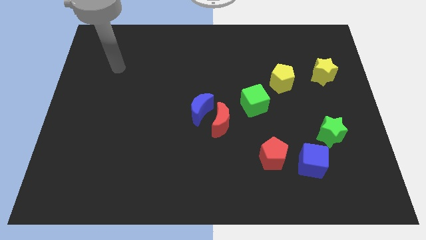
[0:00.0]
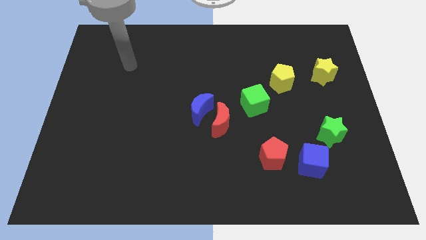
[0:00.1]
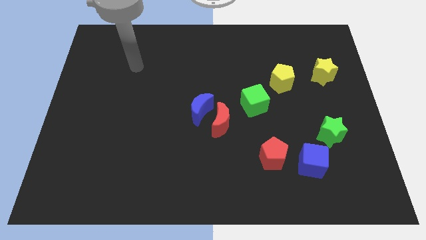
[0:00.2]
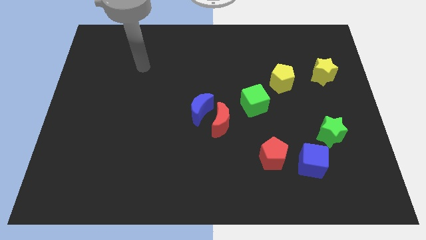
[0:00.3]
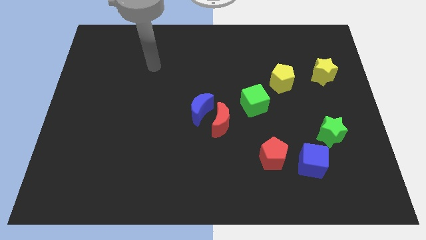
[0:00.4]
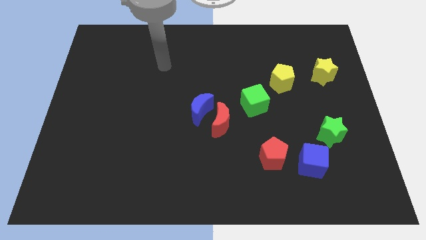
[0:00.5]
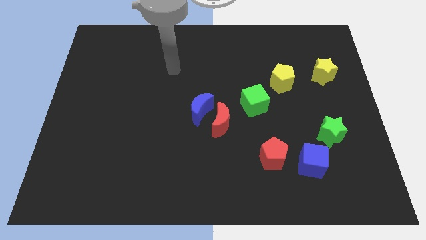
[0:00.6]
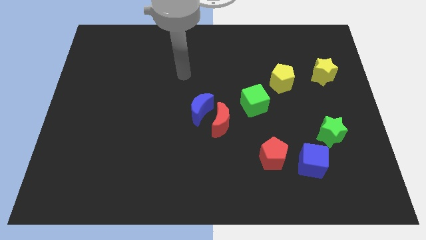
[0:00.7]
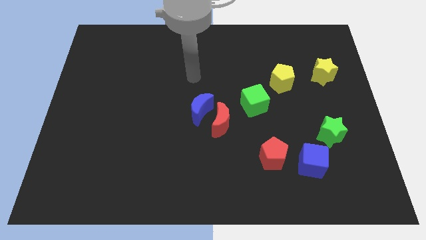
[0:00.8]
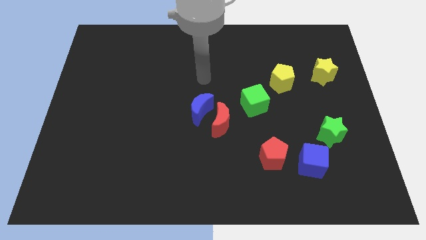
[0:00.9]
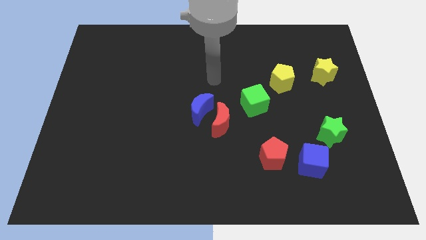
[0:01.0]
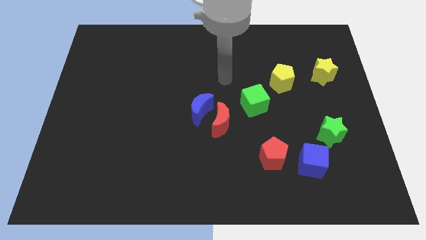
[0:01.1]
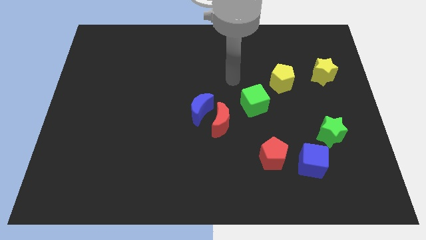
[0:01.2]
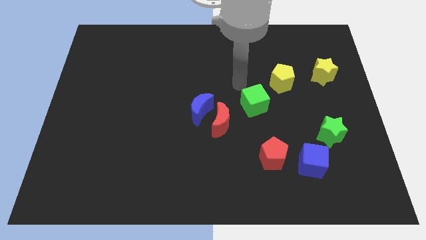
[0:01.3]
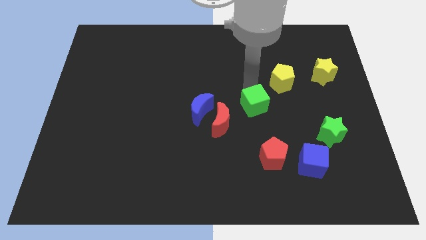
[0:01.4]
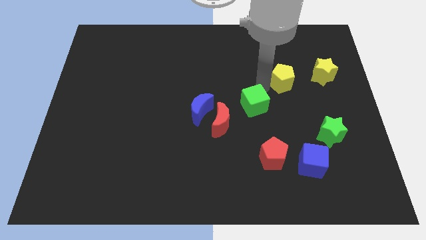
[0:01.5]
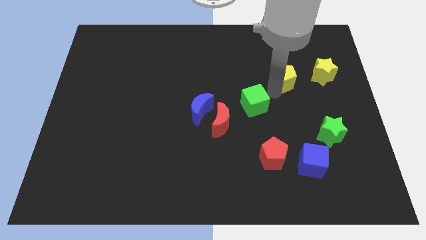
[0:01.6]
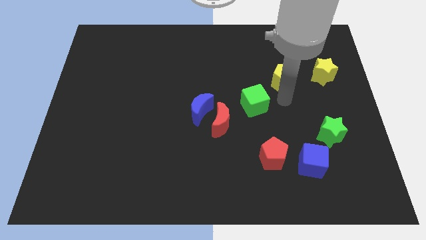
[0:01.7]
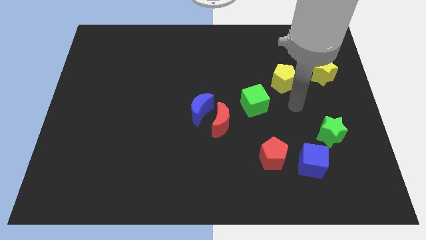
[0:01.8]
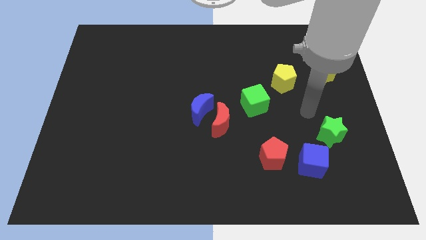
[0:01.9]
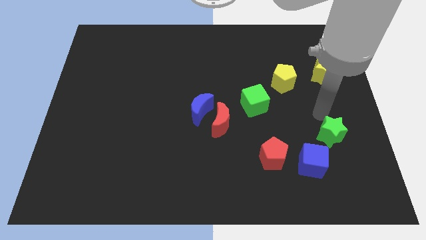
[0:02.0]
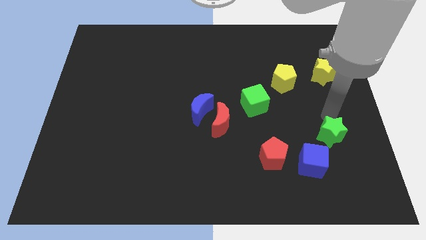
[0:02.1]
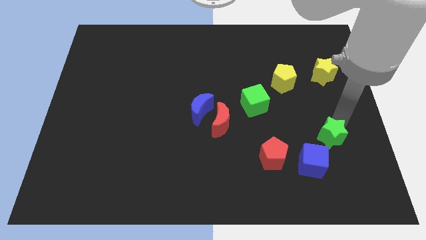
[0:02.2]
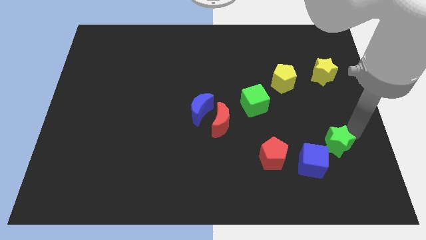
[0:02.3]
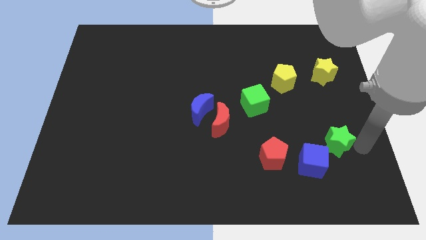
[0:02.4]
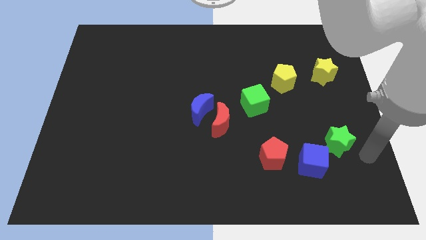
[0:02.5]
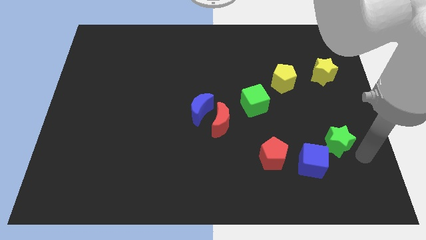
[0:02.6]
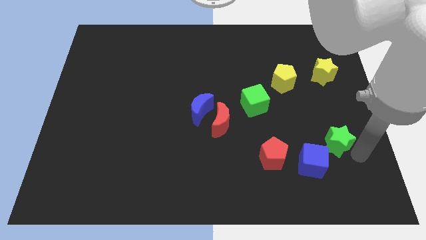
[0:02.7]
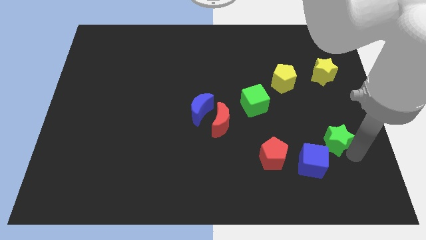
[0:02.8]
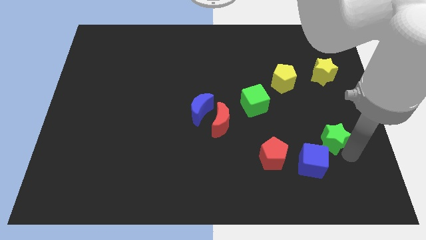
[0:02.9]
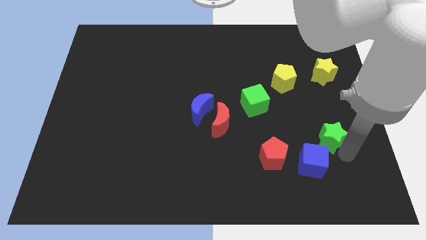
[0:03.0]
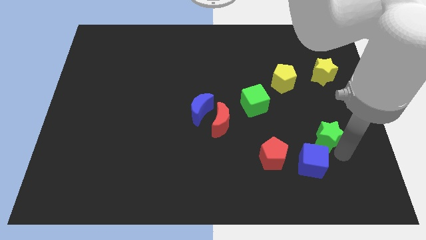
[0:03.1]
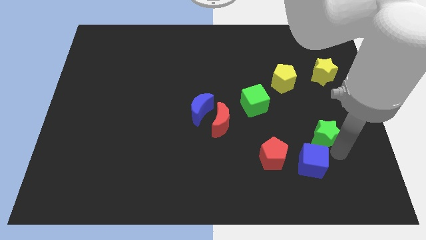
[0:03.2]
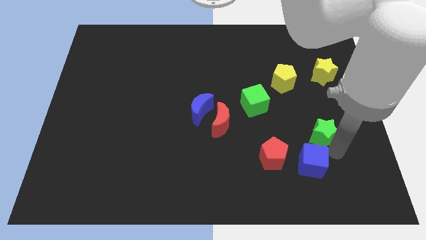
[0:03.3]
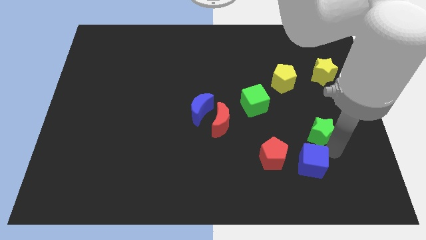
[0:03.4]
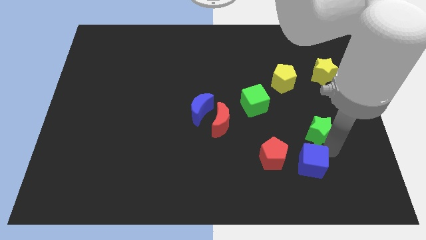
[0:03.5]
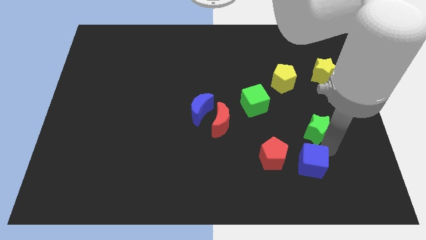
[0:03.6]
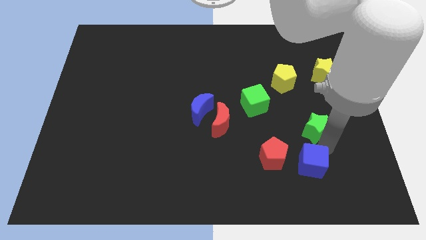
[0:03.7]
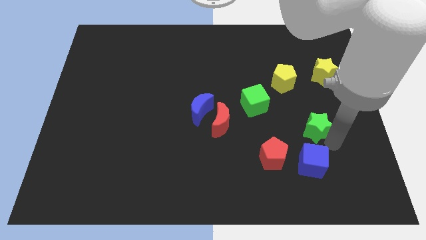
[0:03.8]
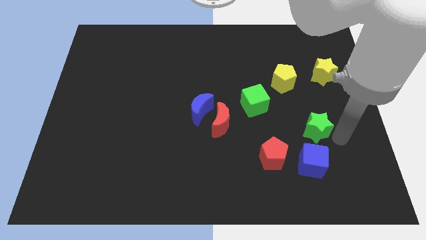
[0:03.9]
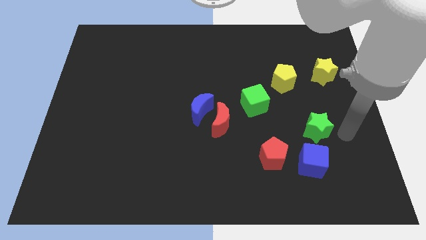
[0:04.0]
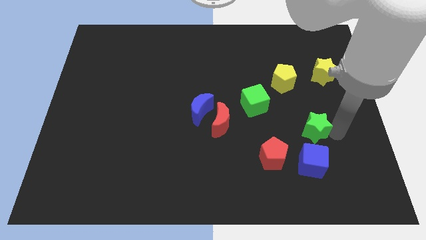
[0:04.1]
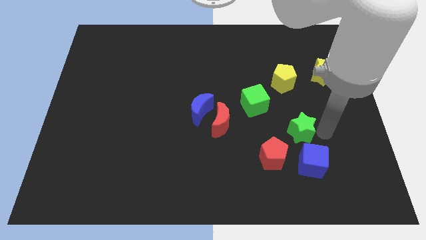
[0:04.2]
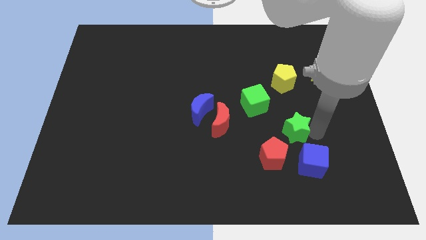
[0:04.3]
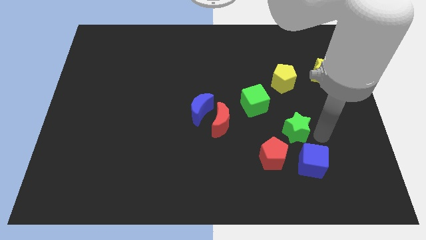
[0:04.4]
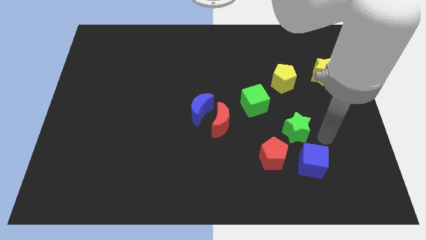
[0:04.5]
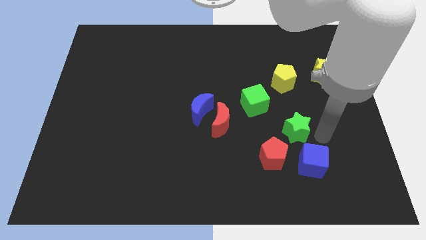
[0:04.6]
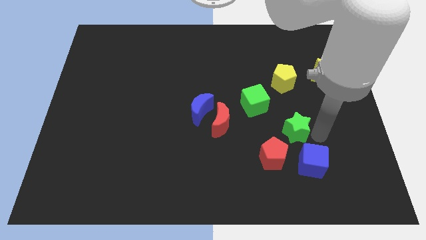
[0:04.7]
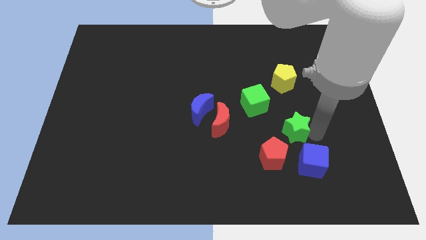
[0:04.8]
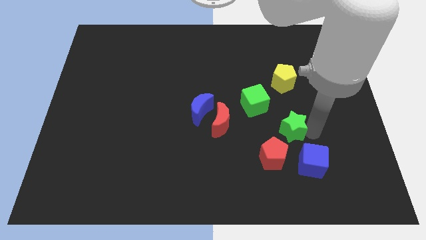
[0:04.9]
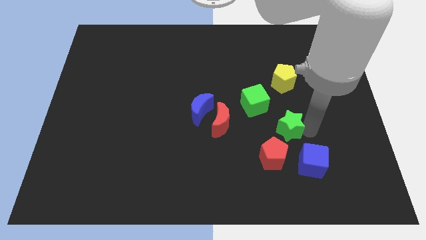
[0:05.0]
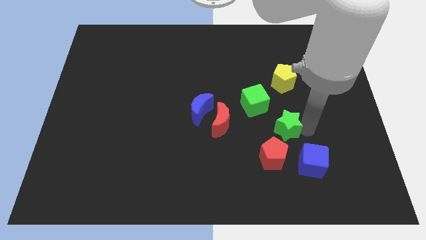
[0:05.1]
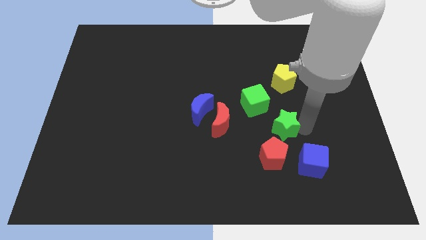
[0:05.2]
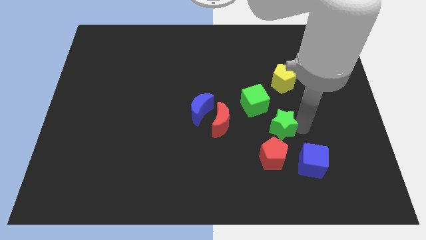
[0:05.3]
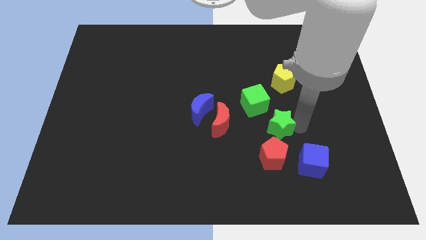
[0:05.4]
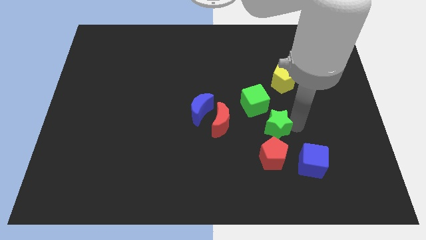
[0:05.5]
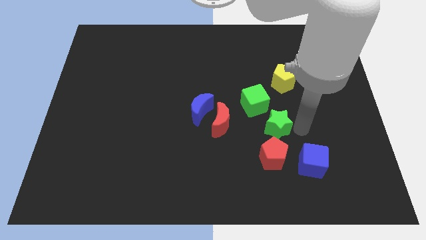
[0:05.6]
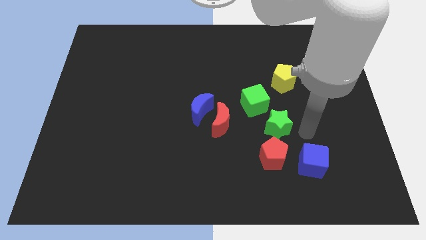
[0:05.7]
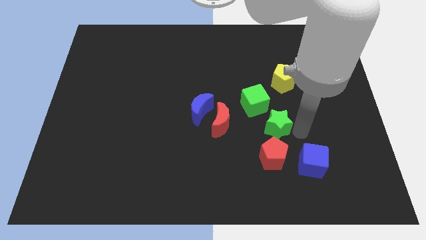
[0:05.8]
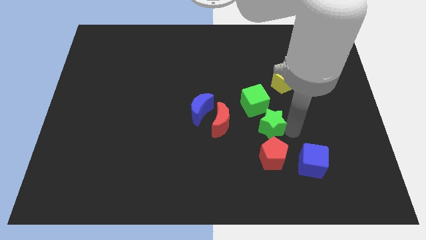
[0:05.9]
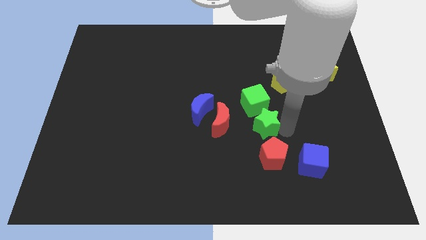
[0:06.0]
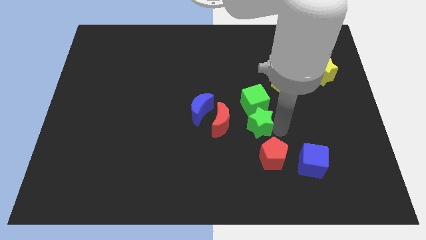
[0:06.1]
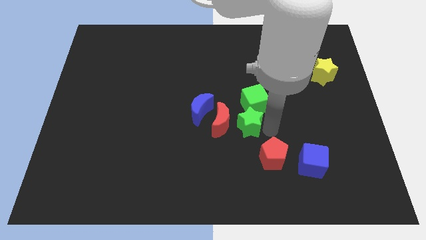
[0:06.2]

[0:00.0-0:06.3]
put the green star to the center of the board

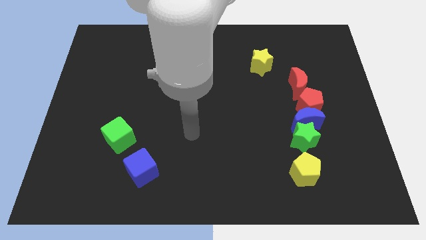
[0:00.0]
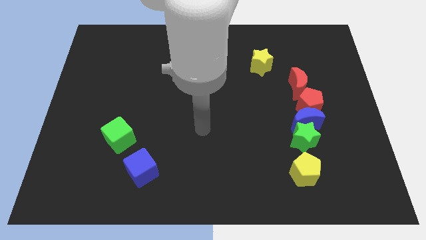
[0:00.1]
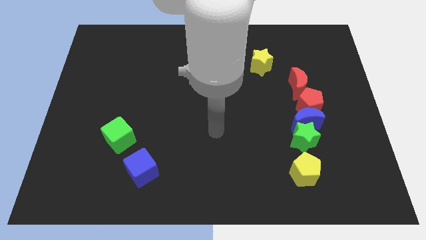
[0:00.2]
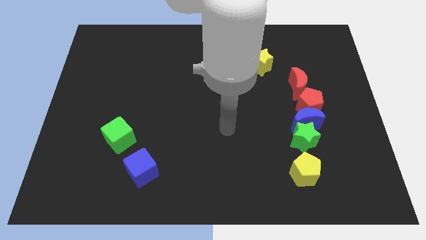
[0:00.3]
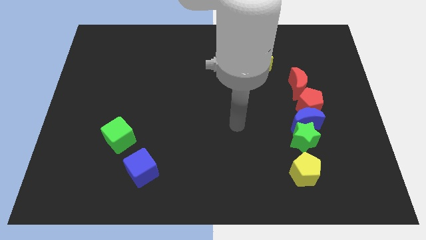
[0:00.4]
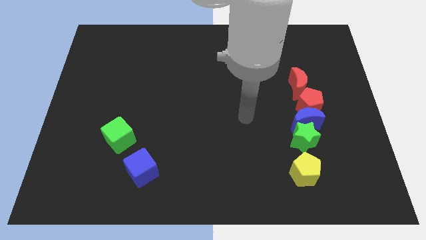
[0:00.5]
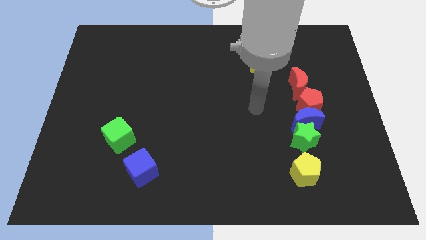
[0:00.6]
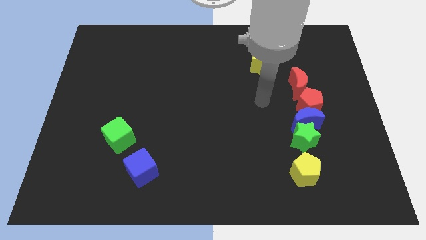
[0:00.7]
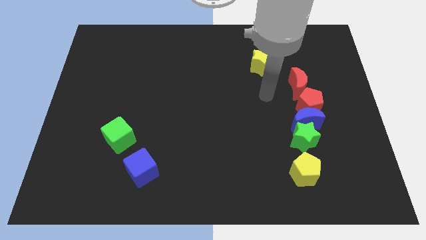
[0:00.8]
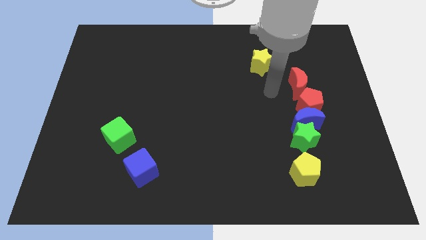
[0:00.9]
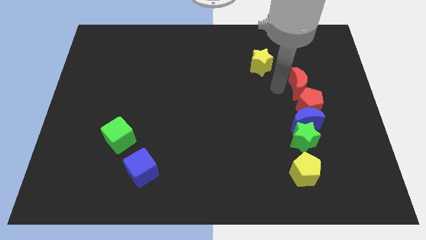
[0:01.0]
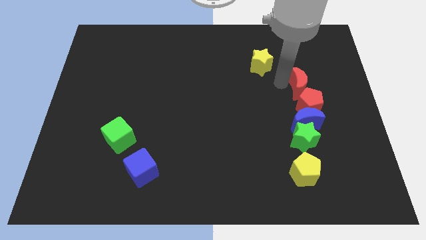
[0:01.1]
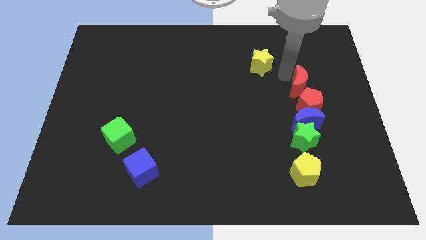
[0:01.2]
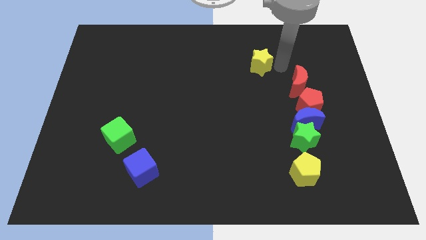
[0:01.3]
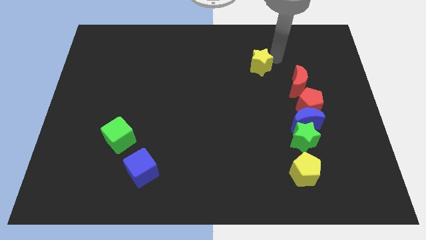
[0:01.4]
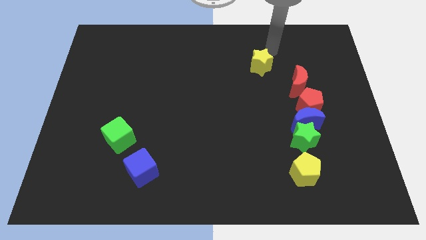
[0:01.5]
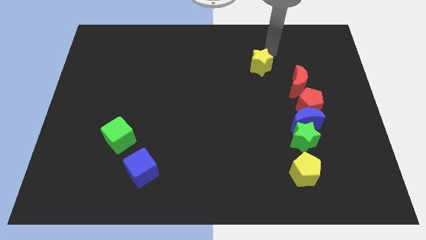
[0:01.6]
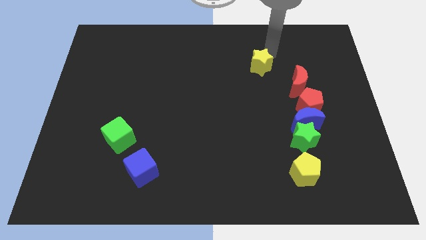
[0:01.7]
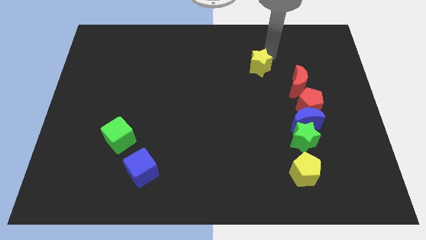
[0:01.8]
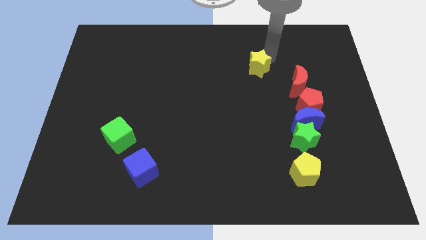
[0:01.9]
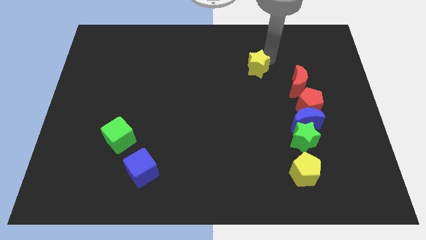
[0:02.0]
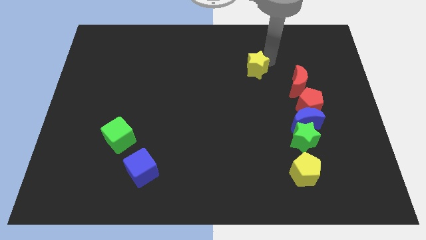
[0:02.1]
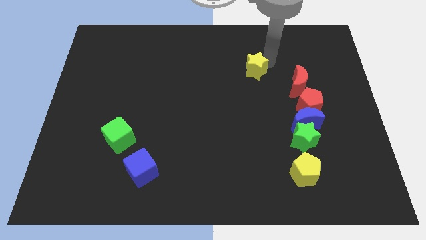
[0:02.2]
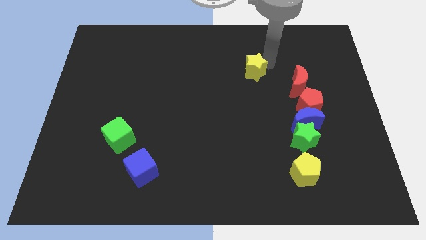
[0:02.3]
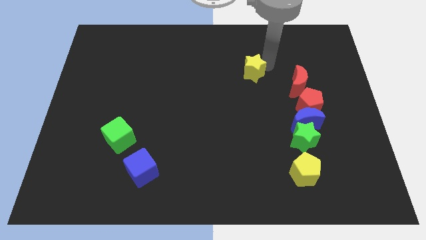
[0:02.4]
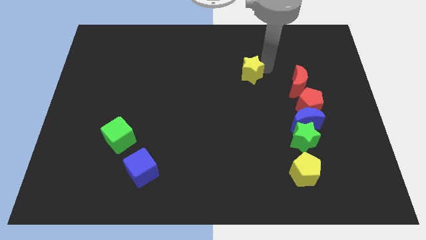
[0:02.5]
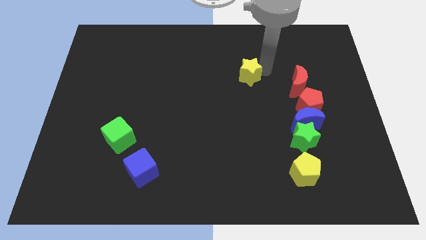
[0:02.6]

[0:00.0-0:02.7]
slide the yellow star to the center of the board
